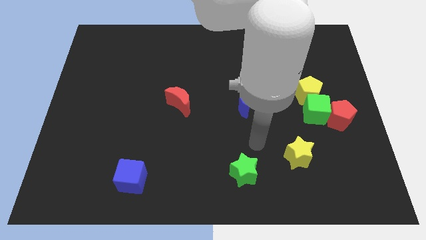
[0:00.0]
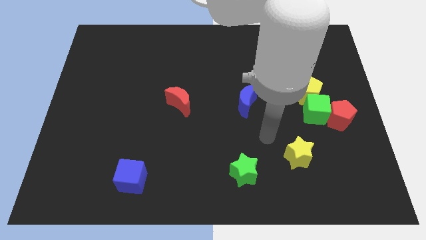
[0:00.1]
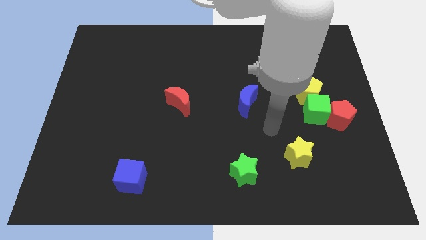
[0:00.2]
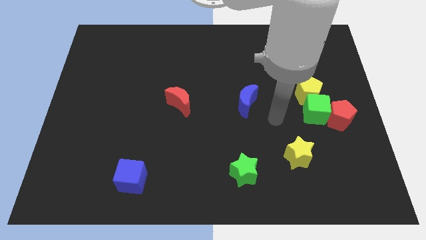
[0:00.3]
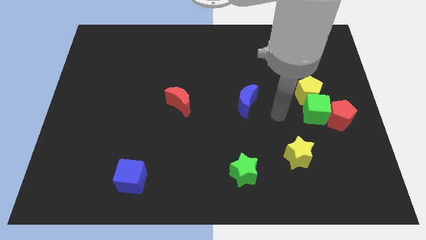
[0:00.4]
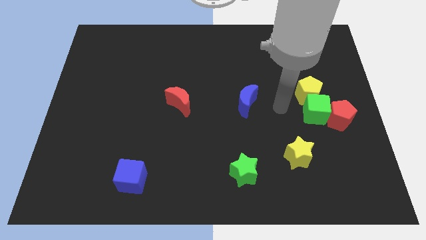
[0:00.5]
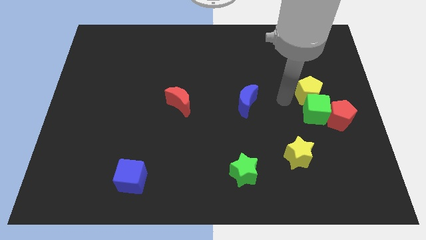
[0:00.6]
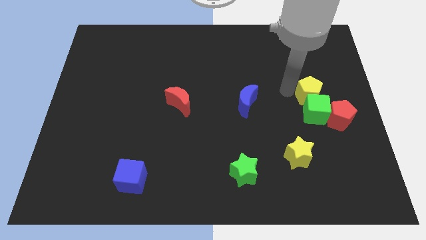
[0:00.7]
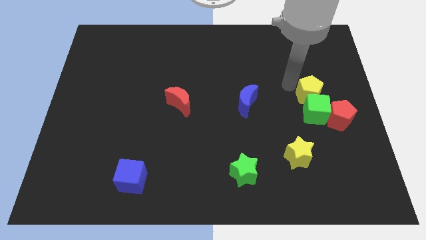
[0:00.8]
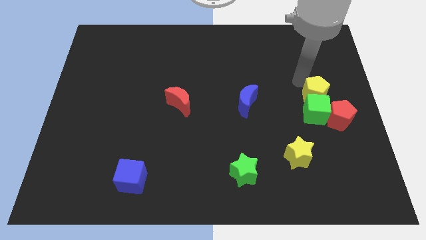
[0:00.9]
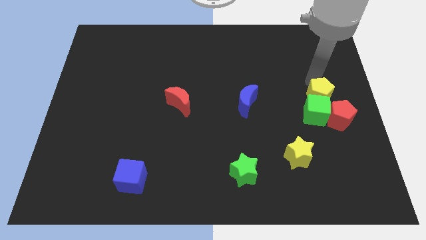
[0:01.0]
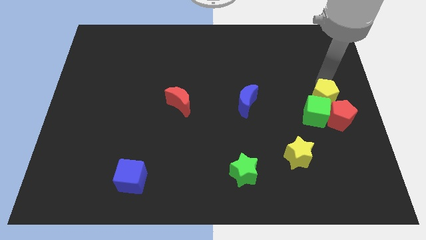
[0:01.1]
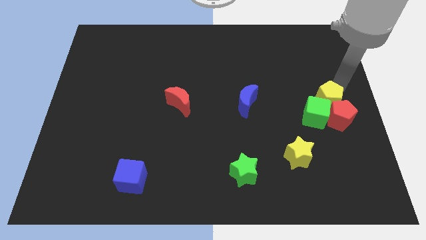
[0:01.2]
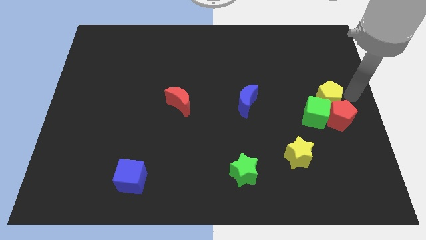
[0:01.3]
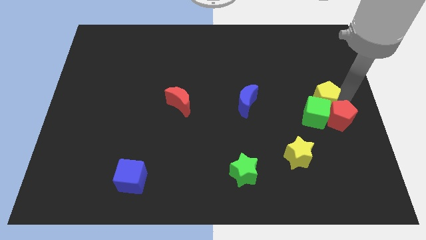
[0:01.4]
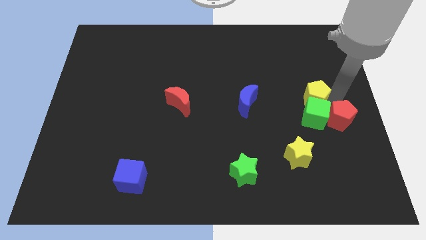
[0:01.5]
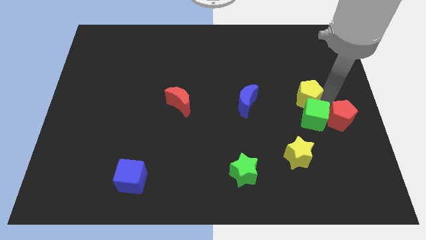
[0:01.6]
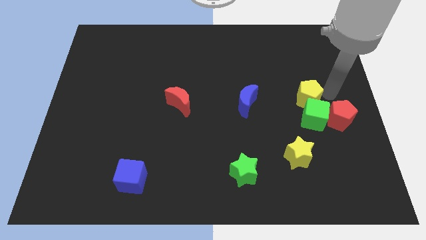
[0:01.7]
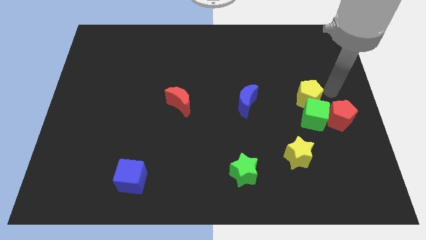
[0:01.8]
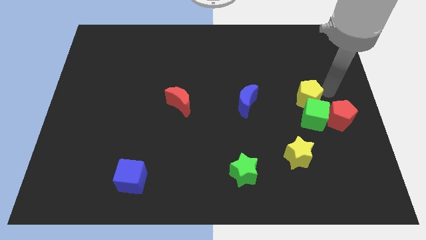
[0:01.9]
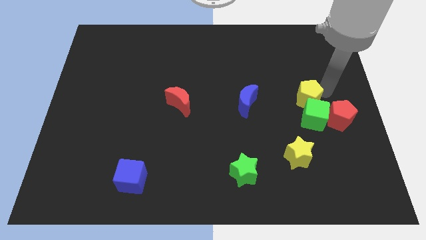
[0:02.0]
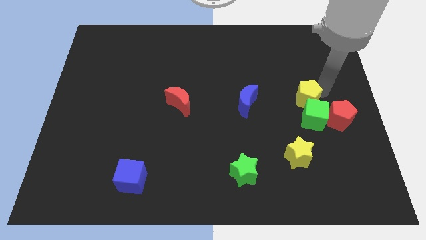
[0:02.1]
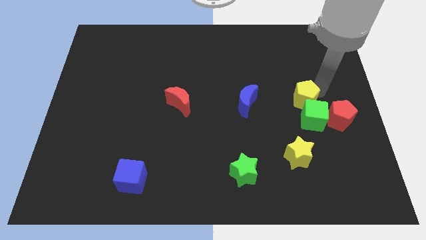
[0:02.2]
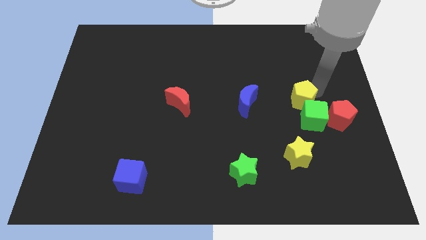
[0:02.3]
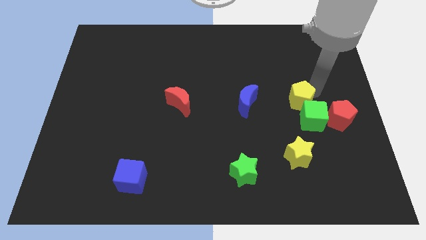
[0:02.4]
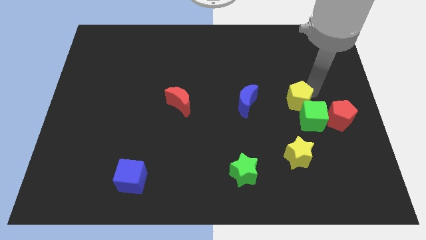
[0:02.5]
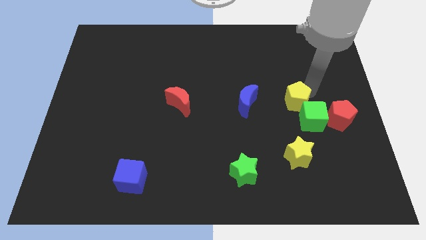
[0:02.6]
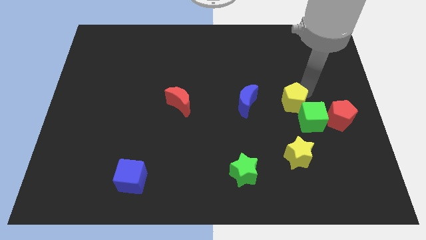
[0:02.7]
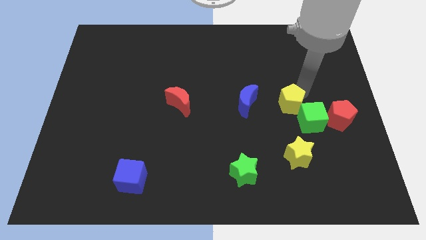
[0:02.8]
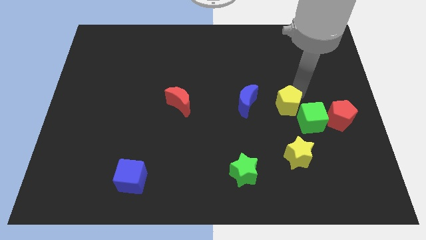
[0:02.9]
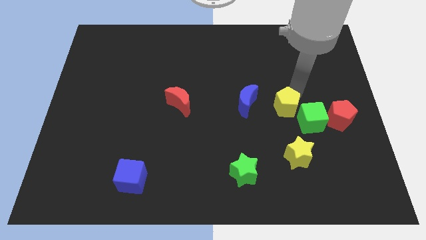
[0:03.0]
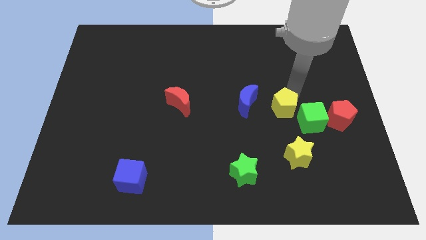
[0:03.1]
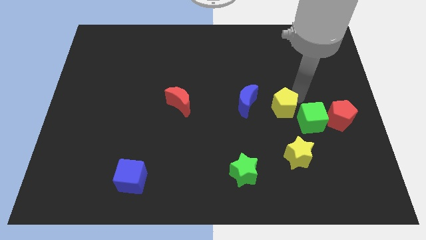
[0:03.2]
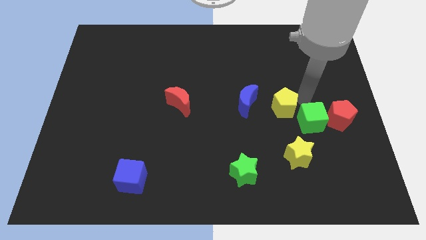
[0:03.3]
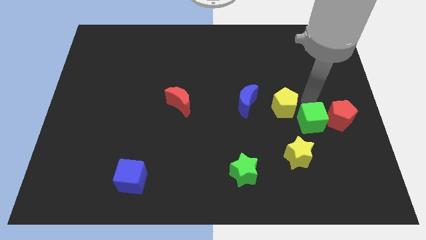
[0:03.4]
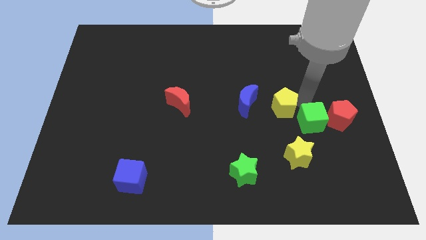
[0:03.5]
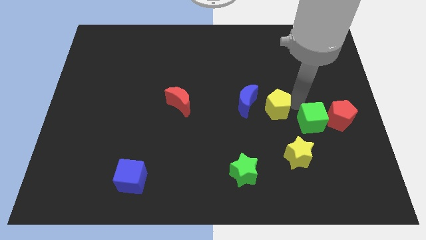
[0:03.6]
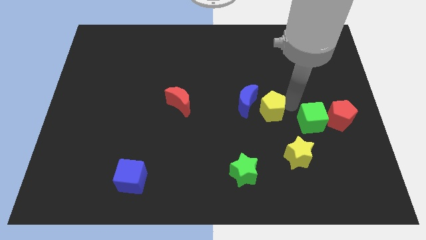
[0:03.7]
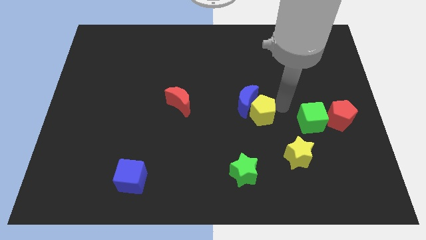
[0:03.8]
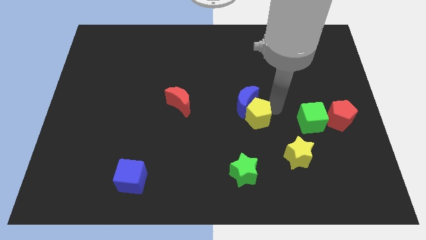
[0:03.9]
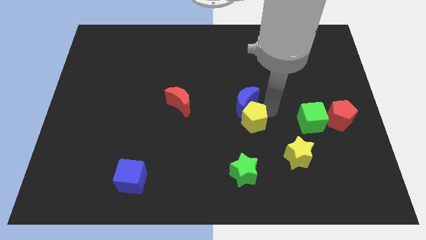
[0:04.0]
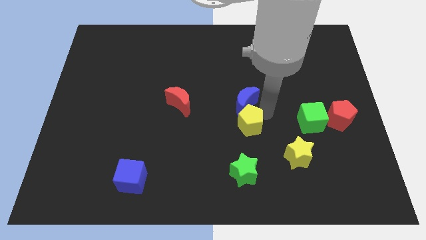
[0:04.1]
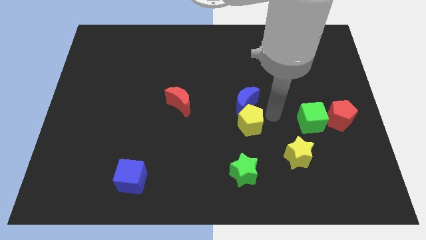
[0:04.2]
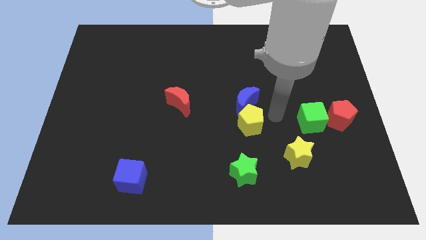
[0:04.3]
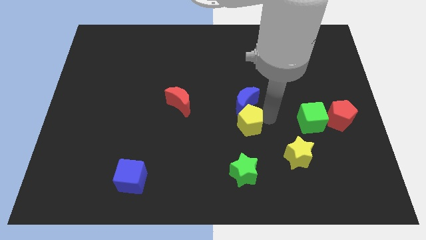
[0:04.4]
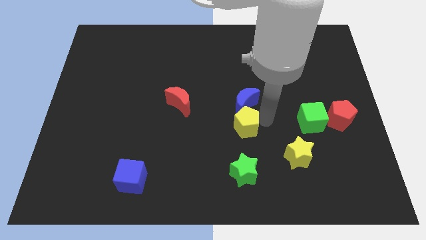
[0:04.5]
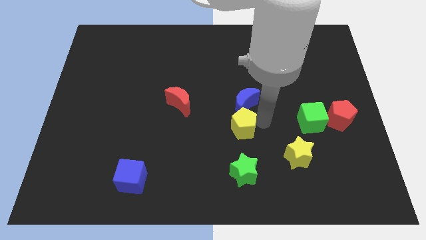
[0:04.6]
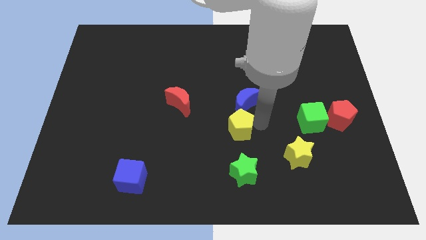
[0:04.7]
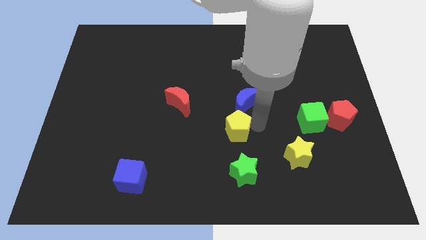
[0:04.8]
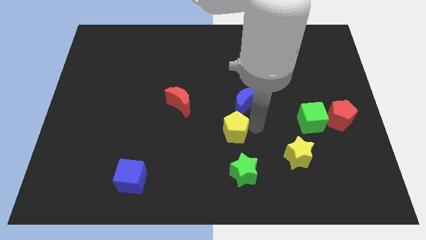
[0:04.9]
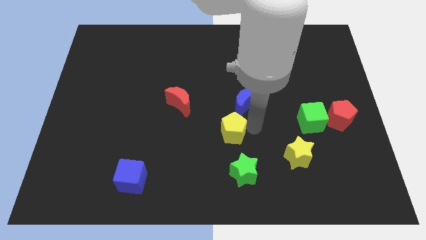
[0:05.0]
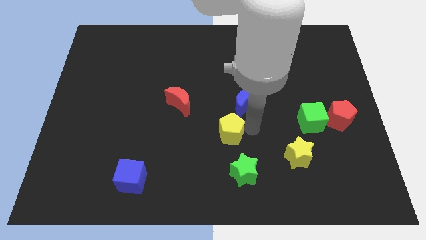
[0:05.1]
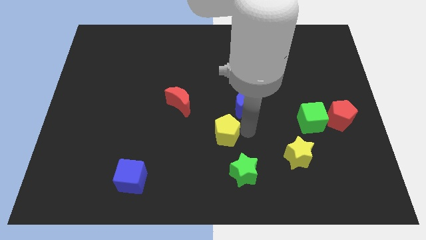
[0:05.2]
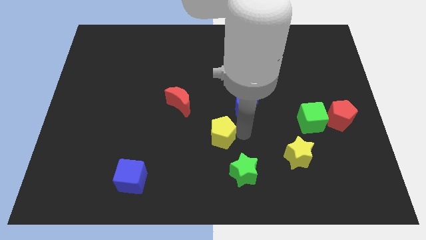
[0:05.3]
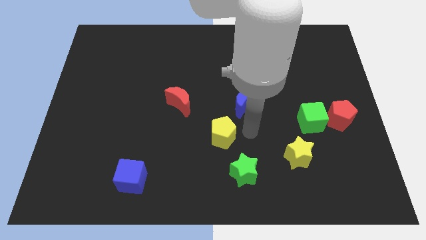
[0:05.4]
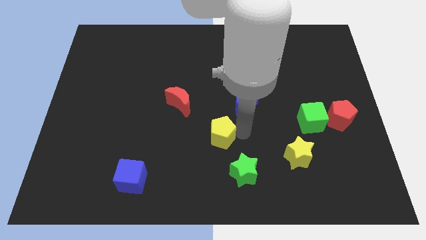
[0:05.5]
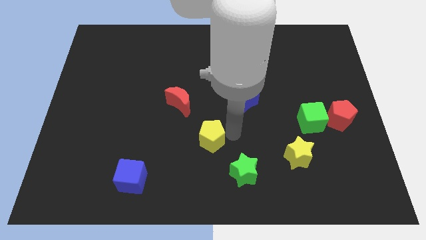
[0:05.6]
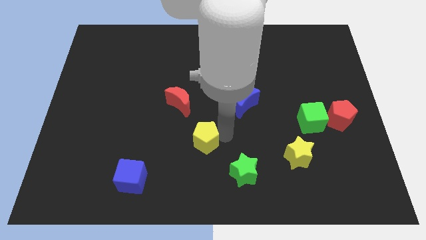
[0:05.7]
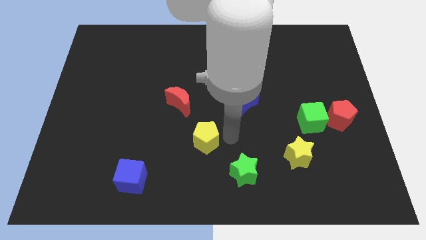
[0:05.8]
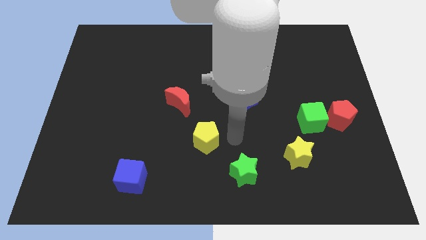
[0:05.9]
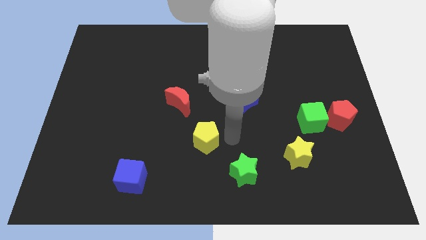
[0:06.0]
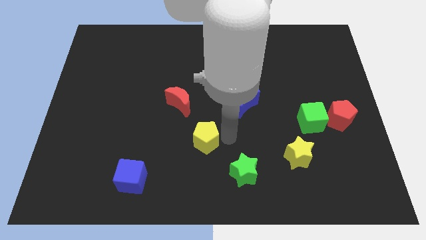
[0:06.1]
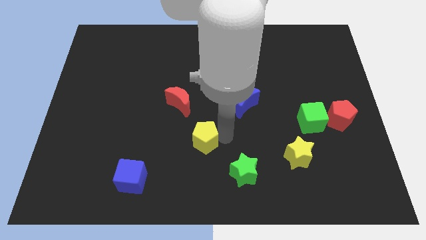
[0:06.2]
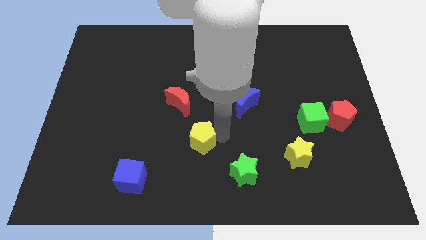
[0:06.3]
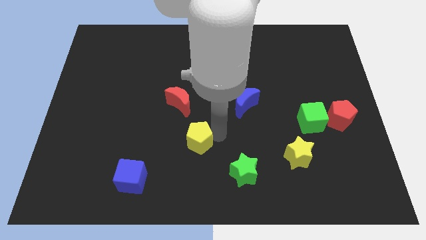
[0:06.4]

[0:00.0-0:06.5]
put the yellow pentagon to the bottom side of the red moon
